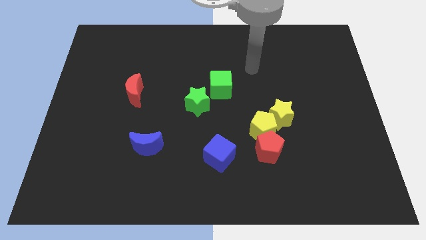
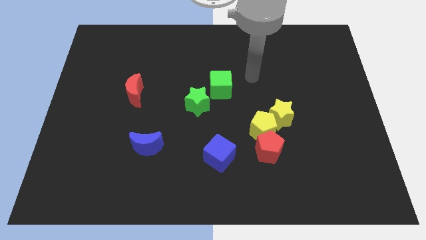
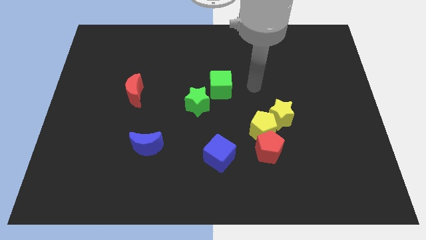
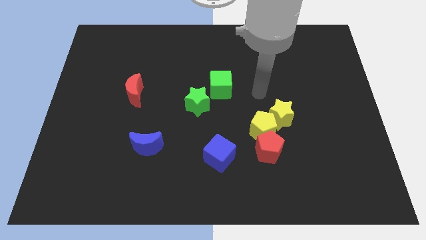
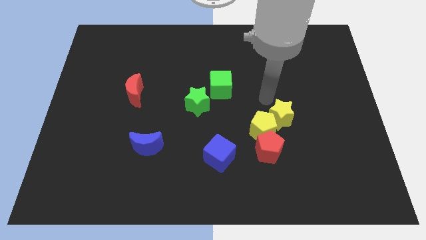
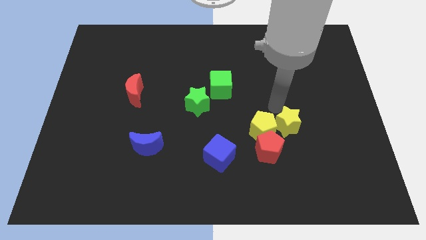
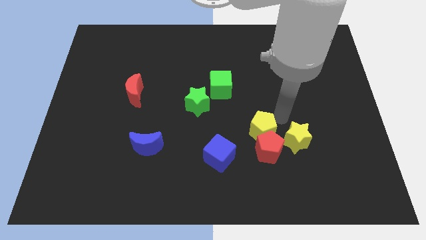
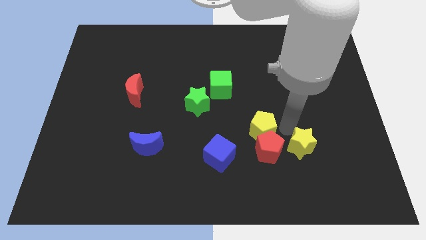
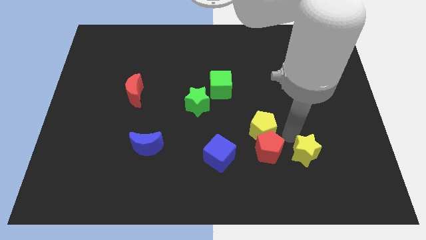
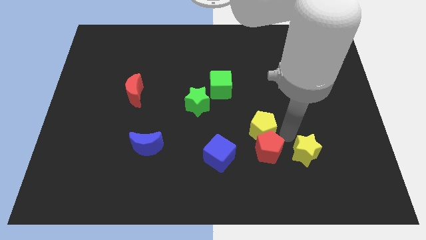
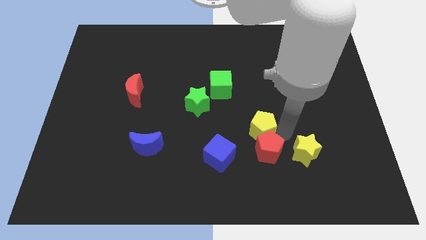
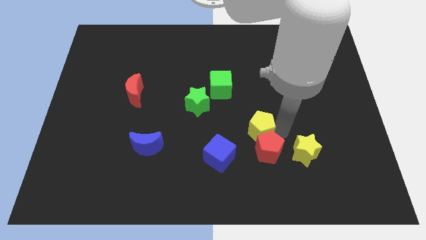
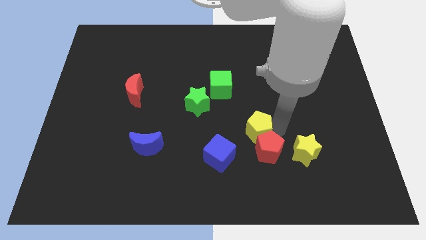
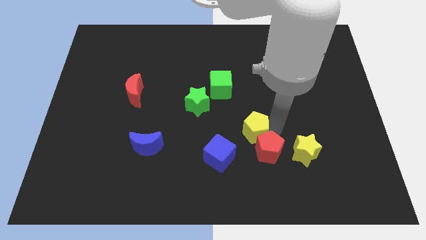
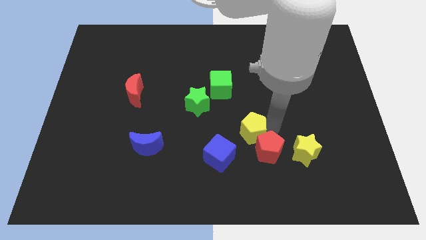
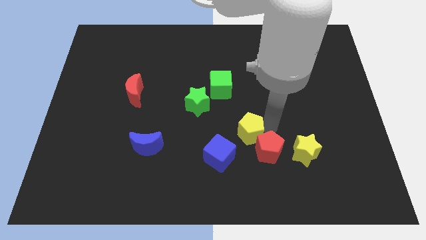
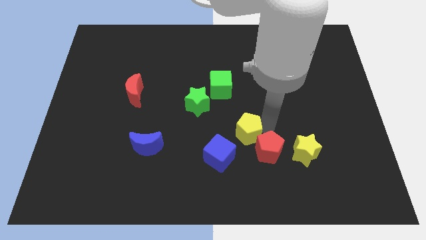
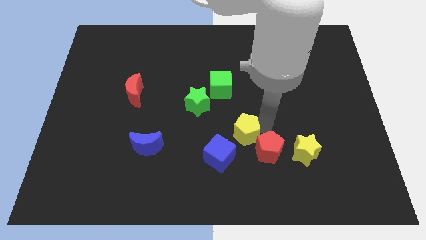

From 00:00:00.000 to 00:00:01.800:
pull the yellow pentagon apart from the red pentagon and yellow star

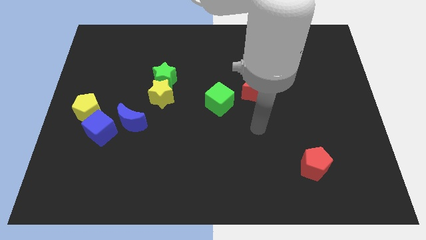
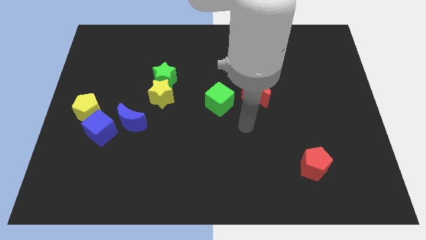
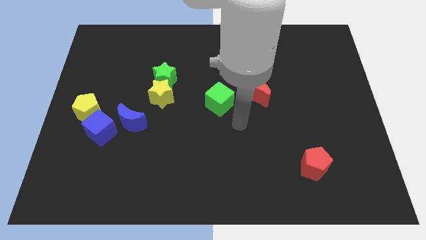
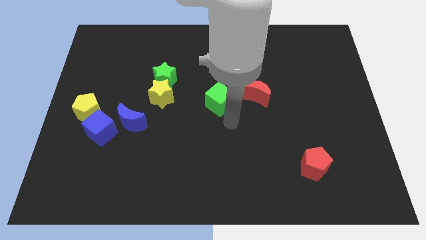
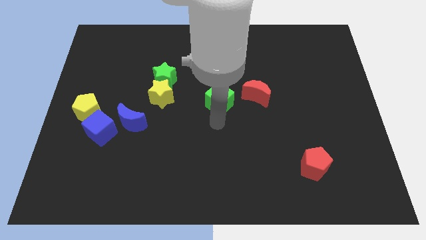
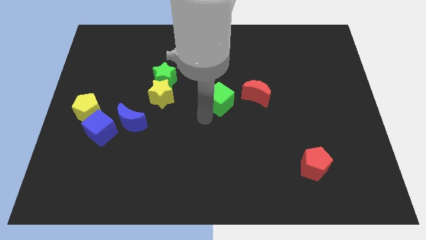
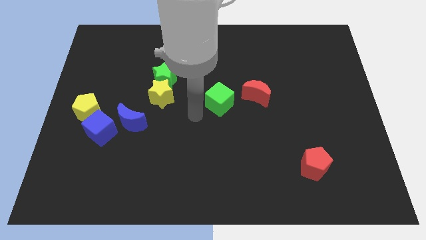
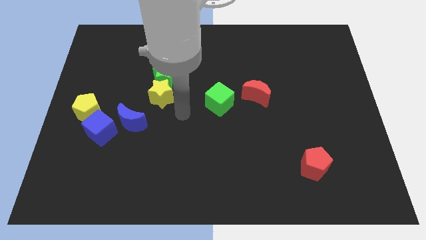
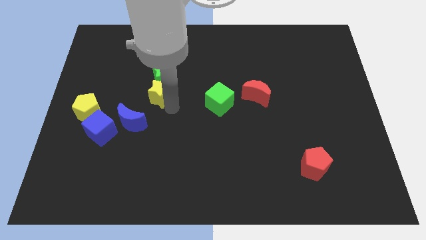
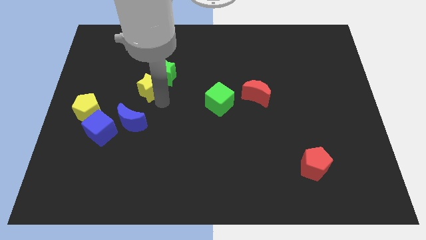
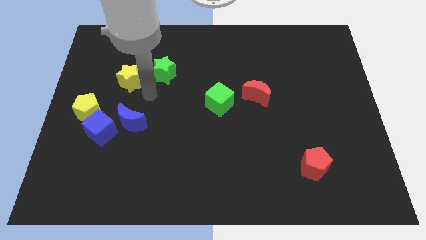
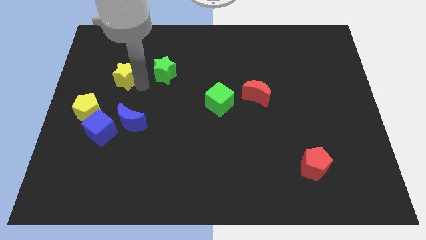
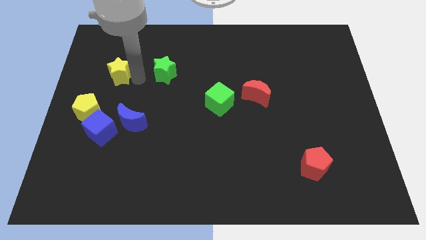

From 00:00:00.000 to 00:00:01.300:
move the green star away from the yellow star

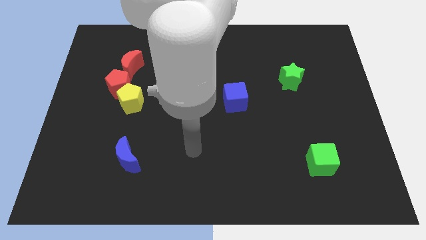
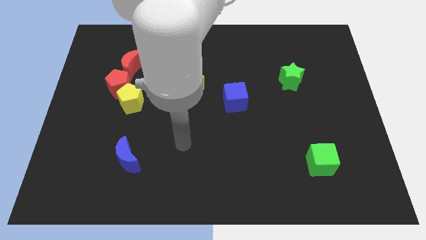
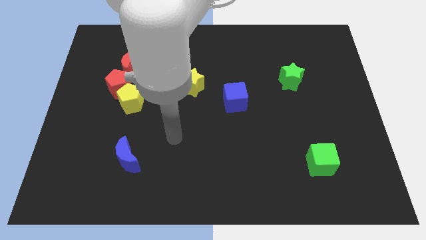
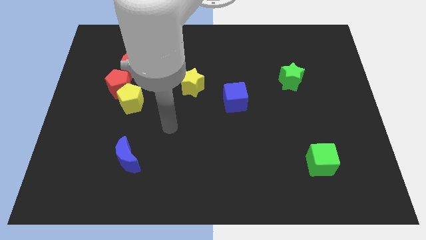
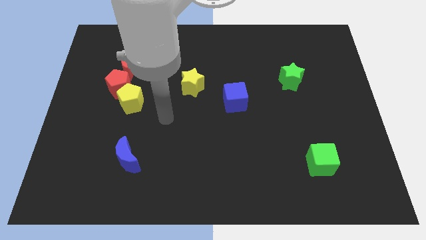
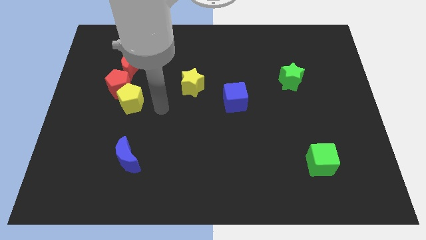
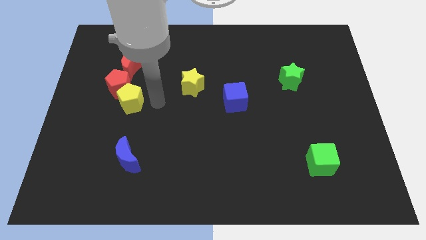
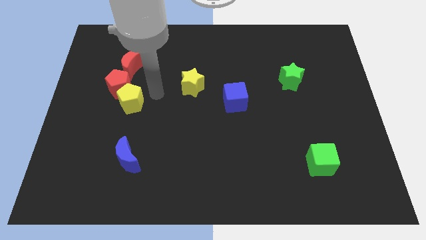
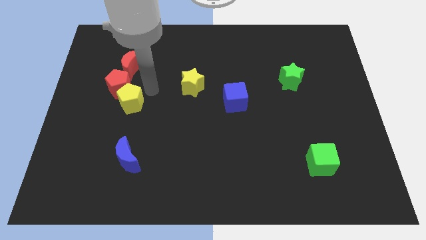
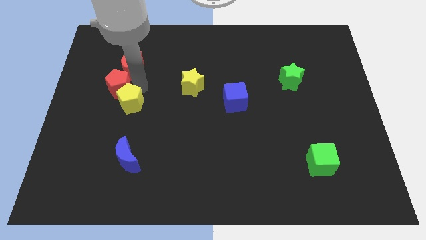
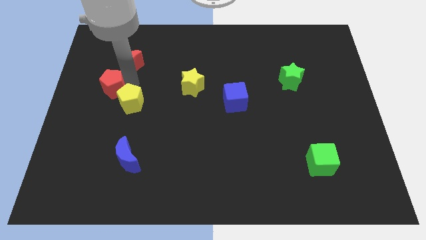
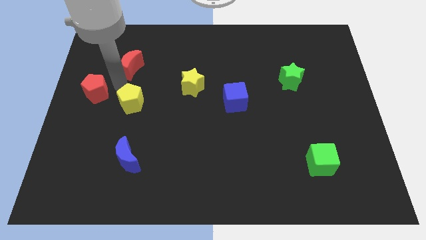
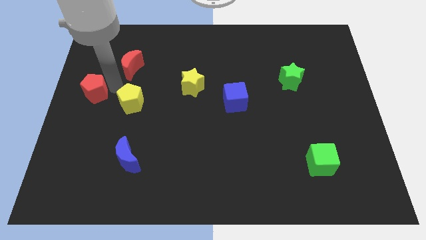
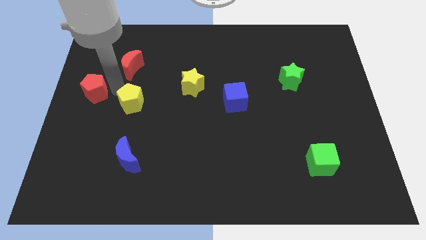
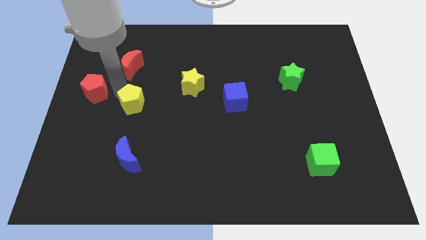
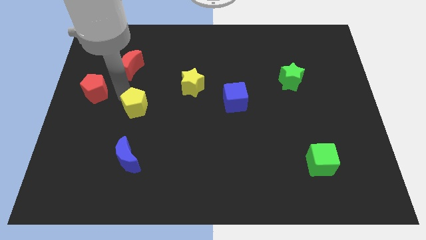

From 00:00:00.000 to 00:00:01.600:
separate the yellow pentagon from the red pentagon

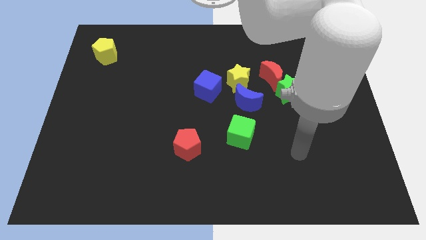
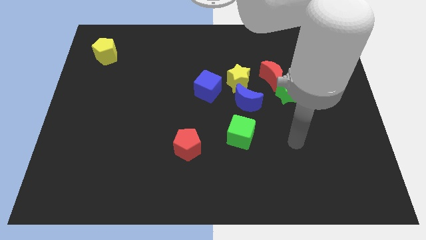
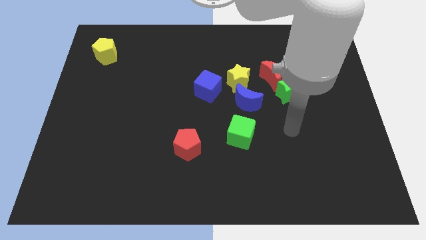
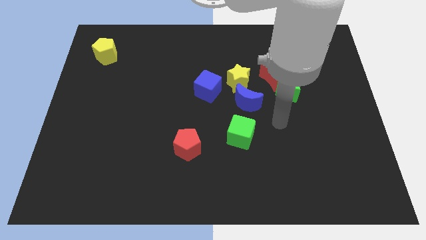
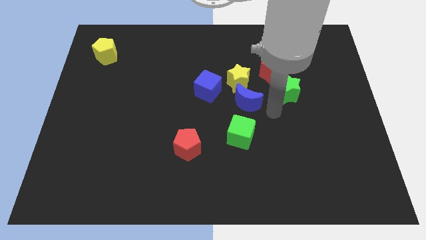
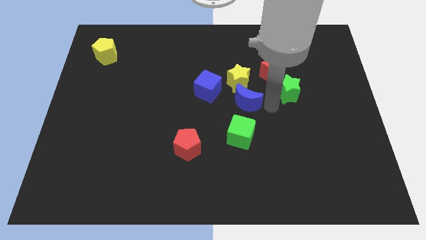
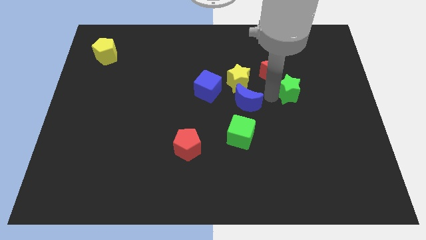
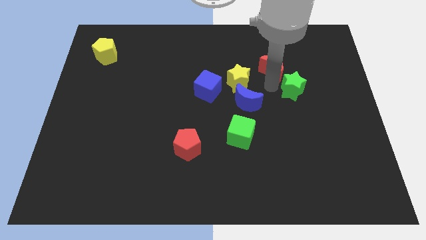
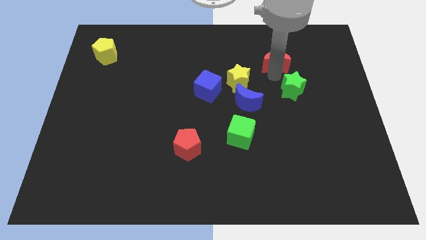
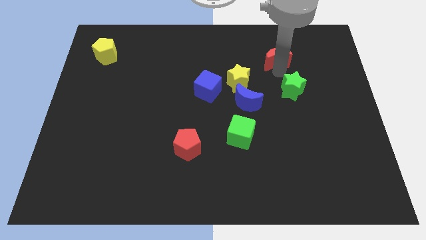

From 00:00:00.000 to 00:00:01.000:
move the green star away from the red moon

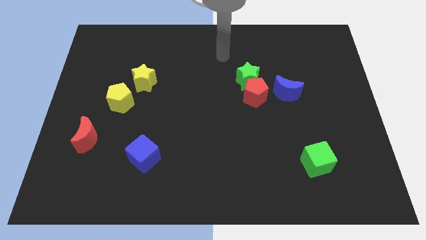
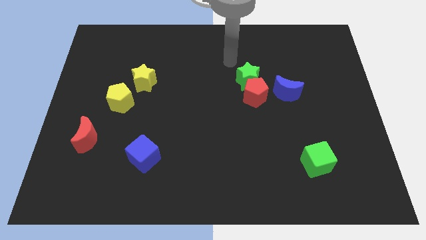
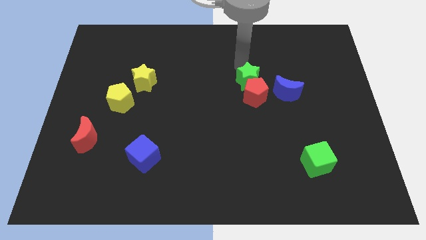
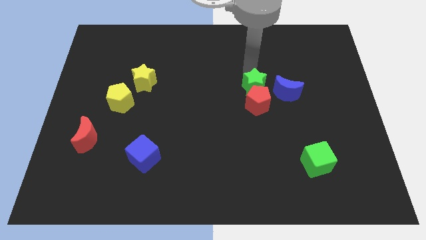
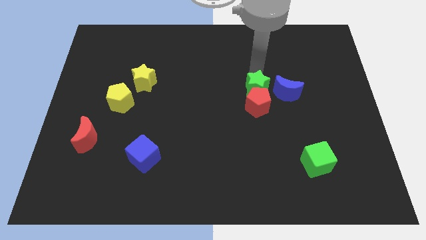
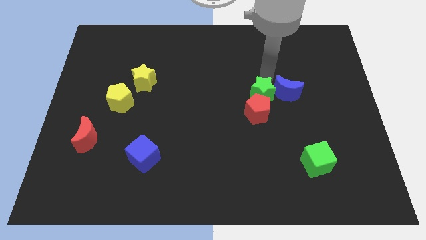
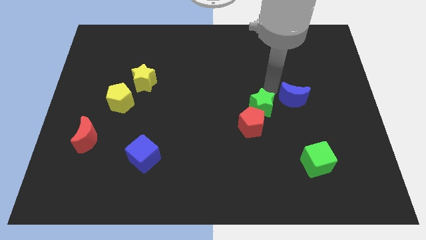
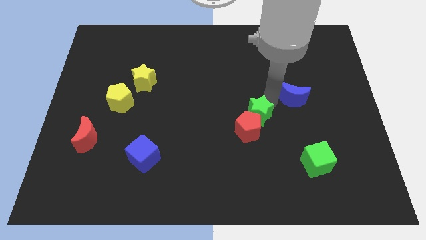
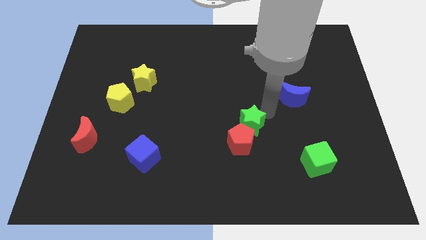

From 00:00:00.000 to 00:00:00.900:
separate the red pentagon from the green star and blue moon

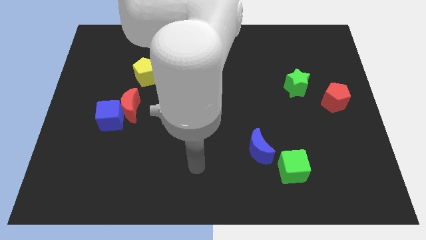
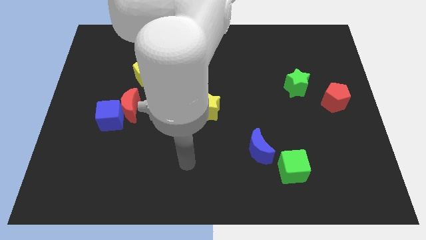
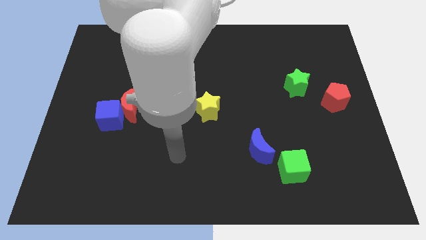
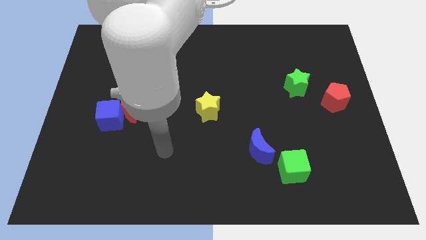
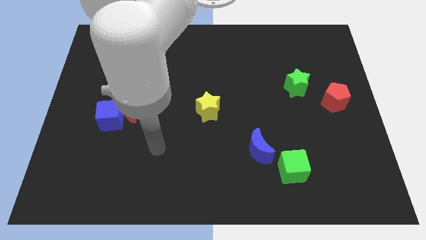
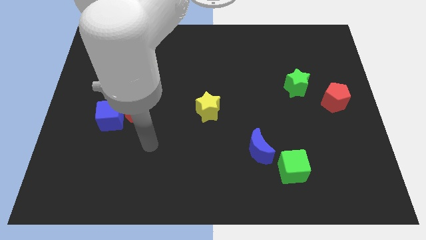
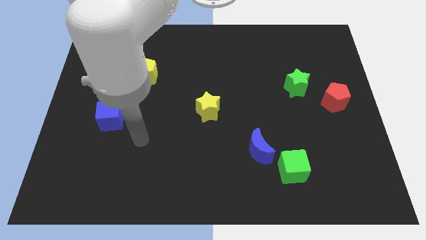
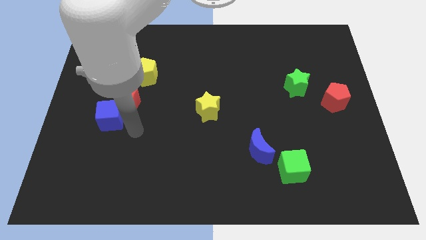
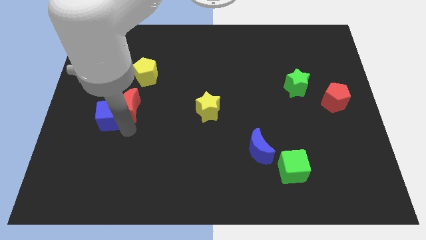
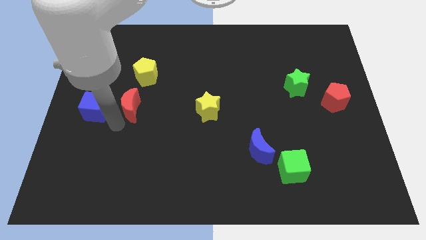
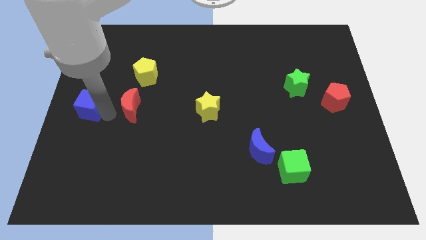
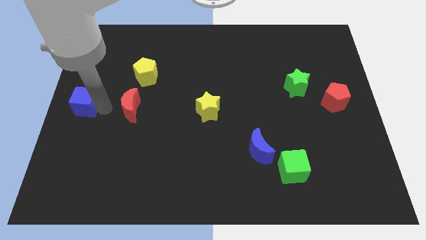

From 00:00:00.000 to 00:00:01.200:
separate the red moon from the blue cube

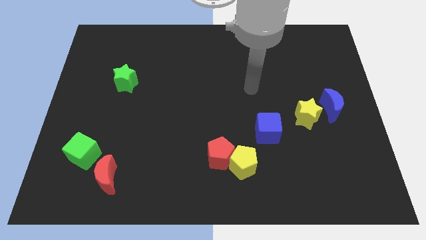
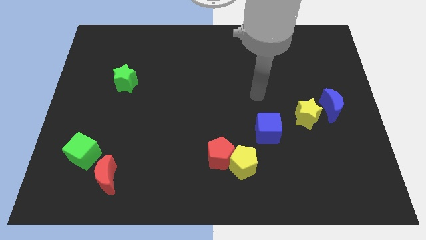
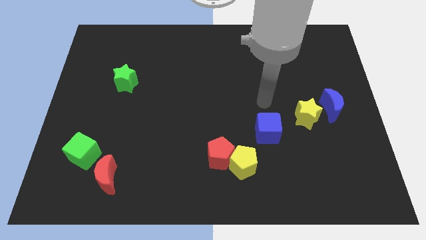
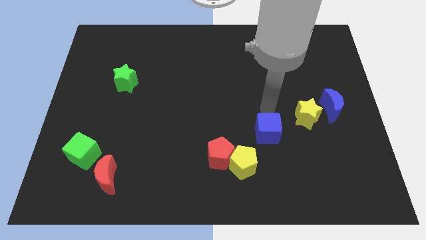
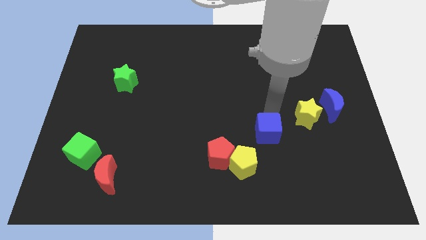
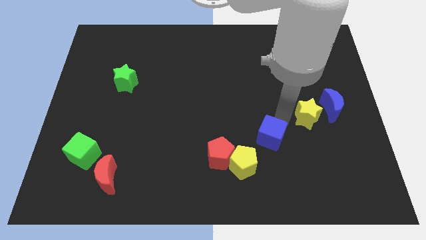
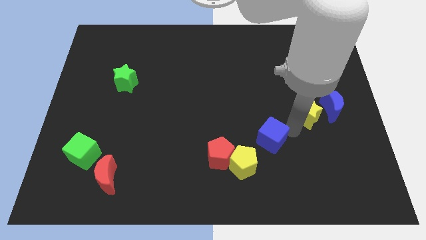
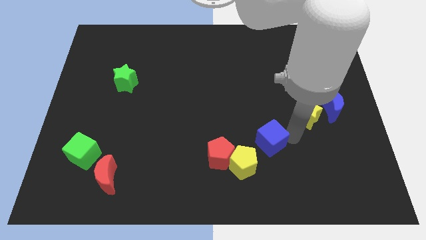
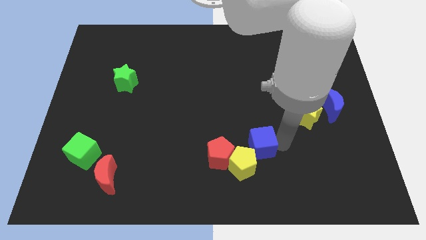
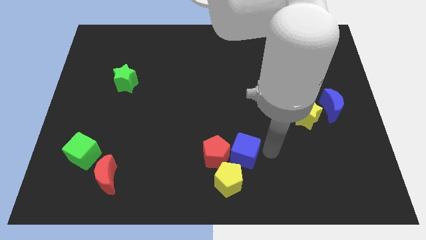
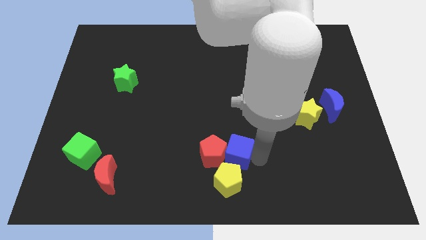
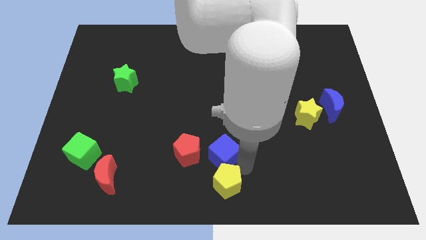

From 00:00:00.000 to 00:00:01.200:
pull the red pentagon apart from the yellow pentagon
